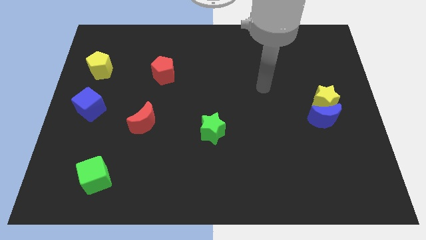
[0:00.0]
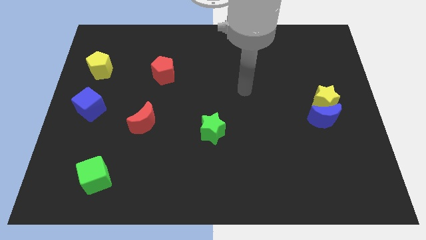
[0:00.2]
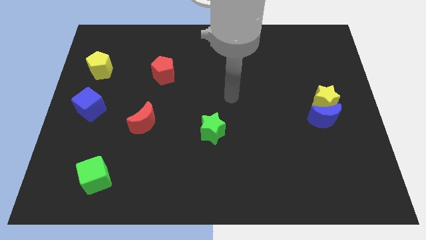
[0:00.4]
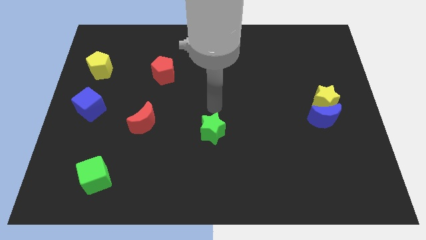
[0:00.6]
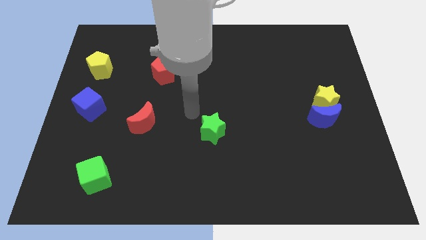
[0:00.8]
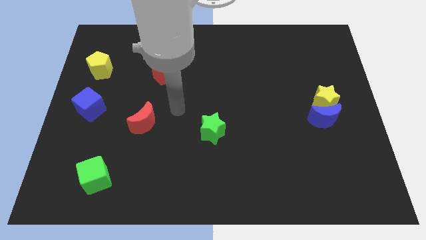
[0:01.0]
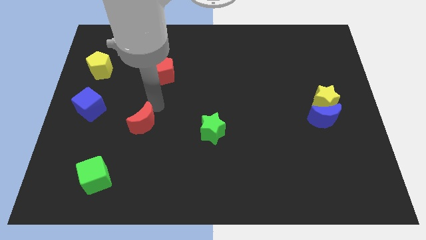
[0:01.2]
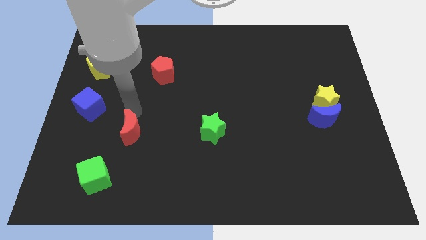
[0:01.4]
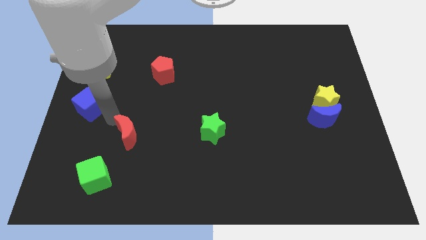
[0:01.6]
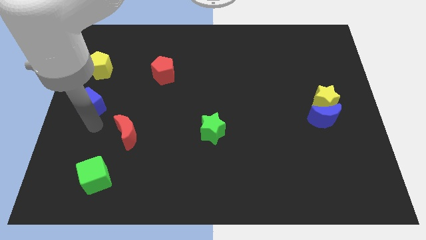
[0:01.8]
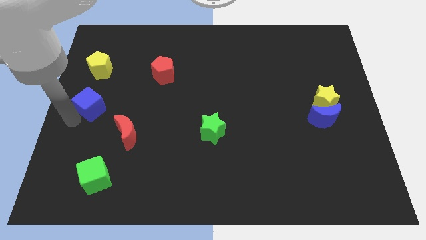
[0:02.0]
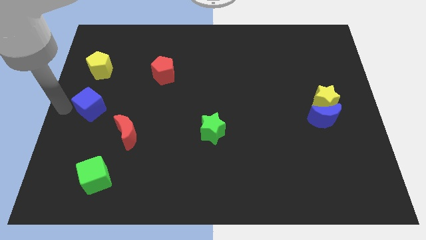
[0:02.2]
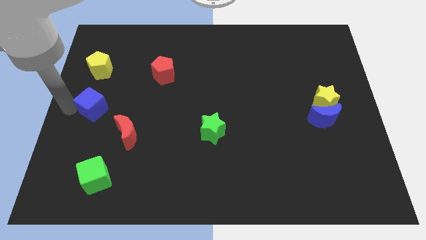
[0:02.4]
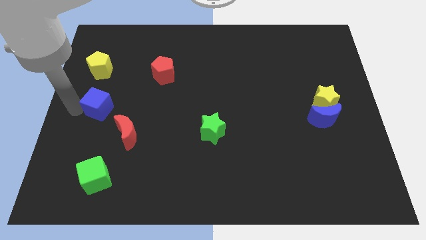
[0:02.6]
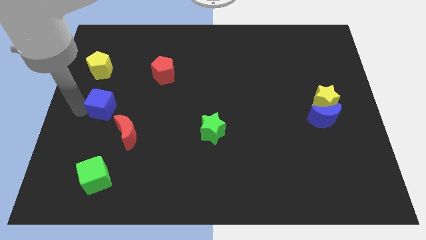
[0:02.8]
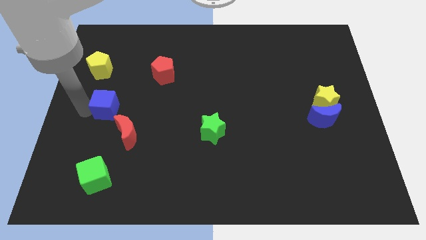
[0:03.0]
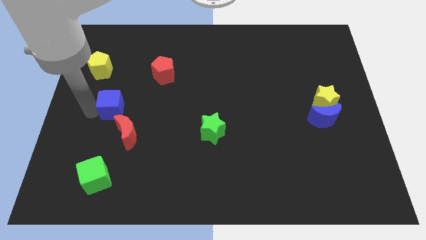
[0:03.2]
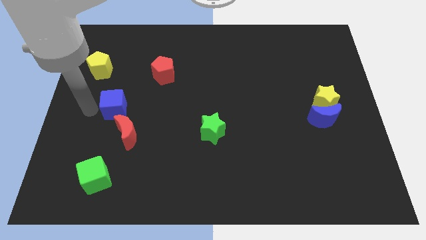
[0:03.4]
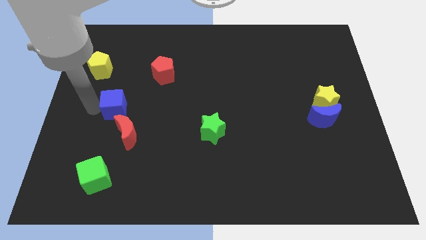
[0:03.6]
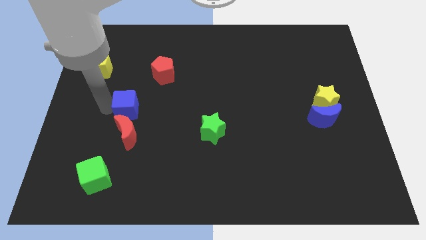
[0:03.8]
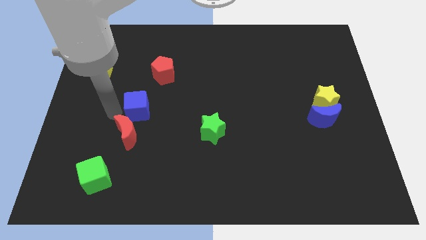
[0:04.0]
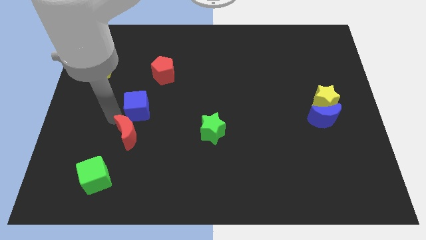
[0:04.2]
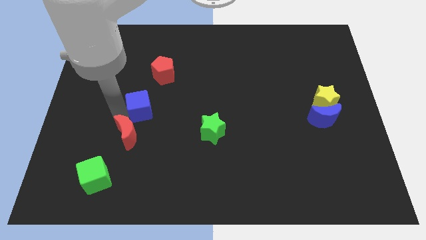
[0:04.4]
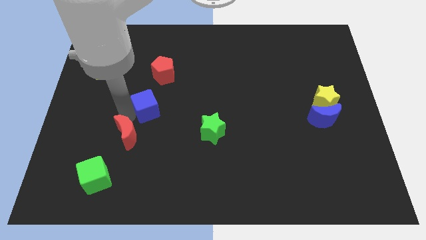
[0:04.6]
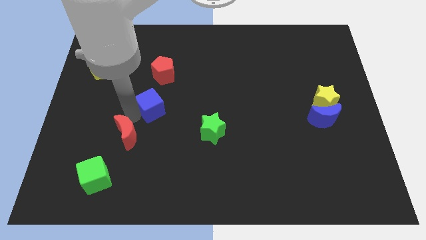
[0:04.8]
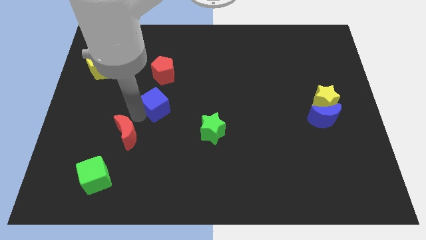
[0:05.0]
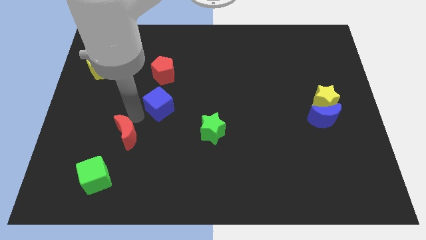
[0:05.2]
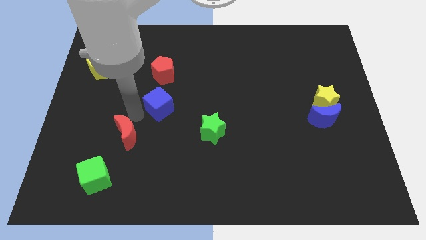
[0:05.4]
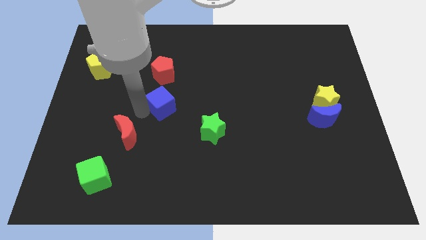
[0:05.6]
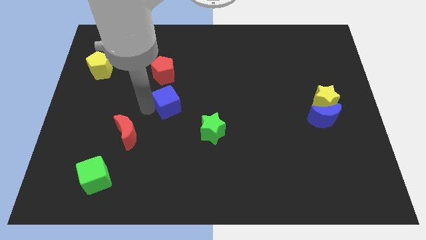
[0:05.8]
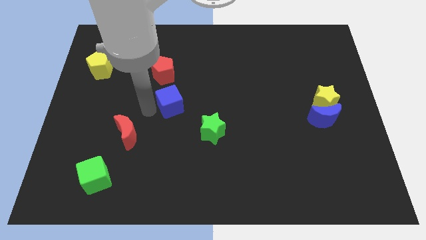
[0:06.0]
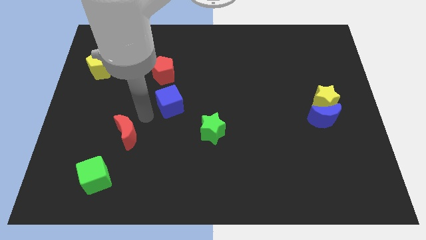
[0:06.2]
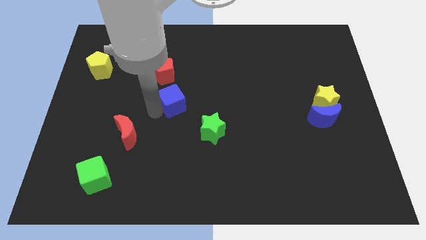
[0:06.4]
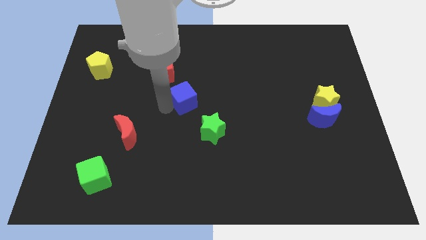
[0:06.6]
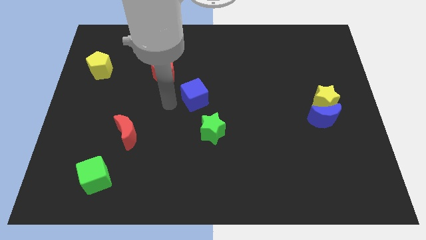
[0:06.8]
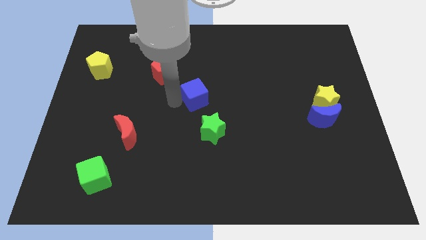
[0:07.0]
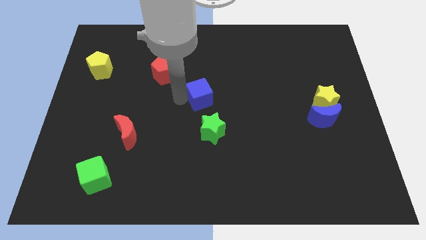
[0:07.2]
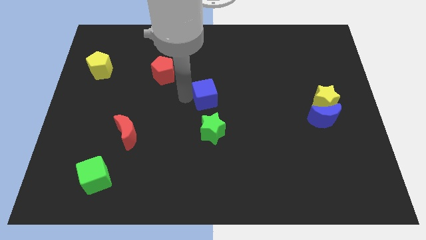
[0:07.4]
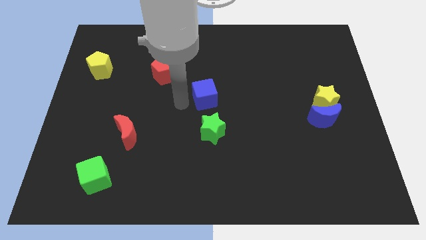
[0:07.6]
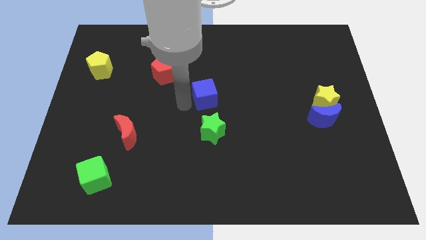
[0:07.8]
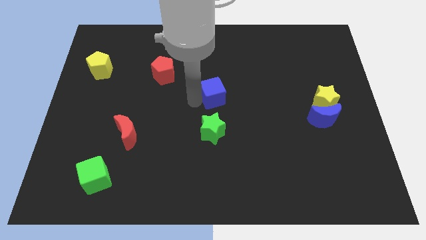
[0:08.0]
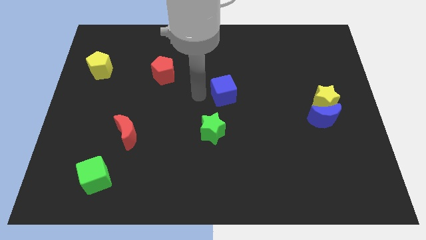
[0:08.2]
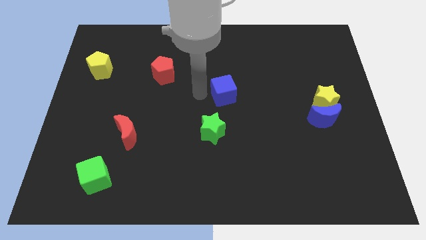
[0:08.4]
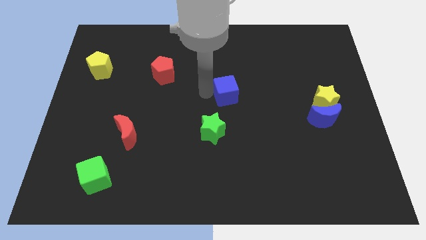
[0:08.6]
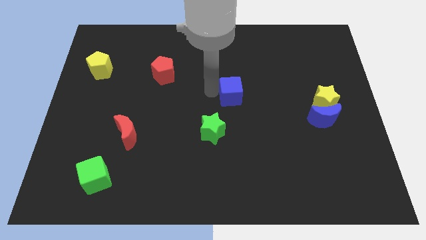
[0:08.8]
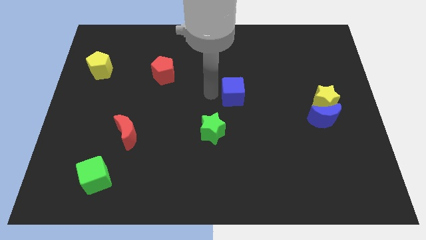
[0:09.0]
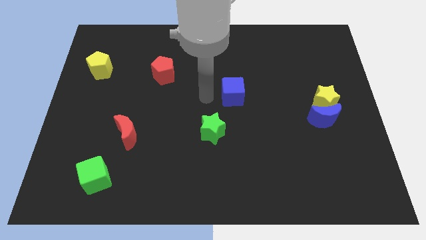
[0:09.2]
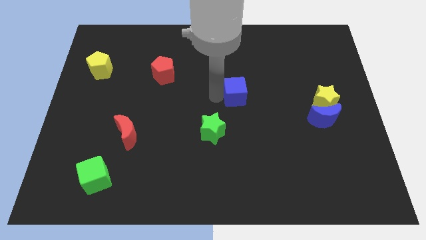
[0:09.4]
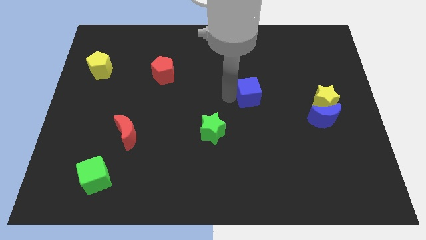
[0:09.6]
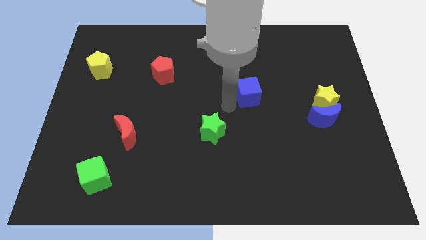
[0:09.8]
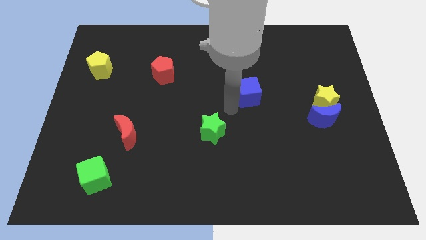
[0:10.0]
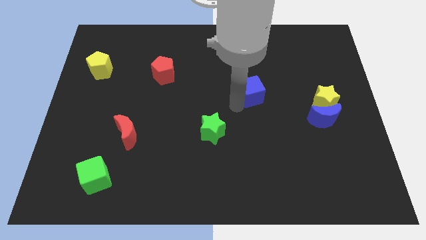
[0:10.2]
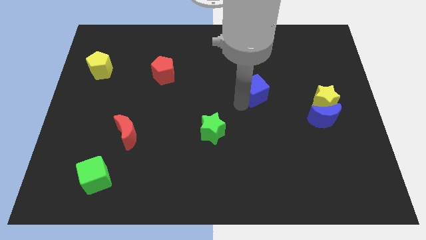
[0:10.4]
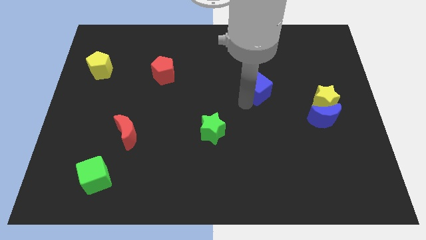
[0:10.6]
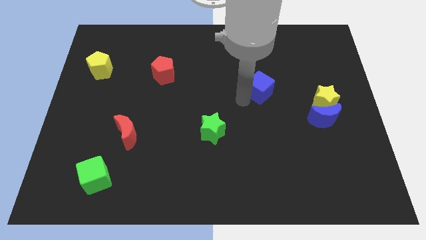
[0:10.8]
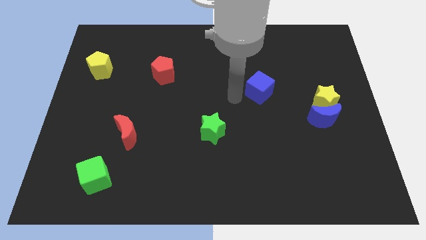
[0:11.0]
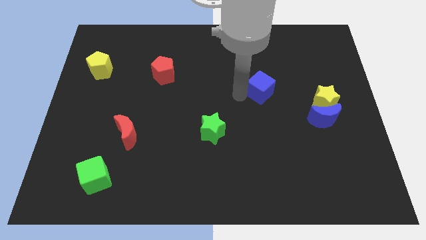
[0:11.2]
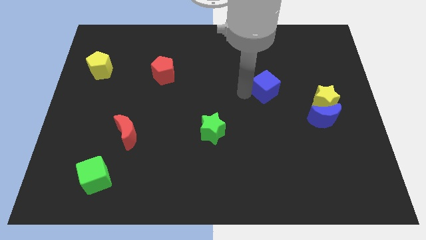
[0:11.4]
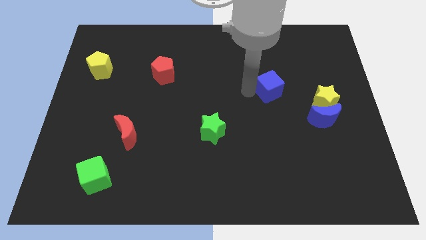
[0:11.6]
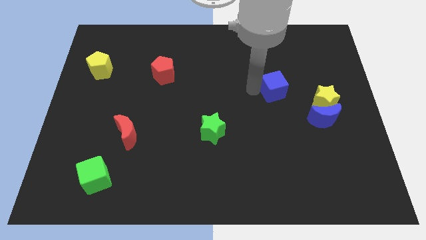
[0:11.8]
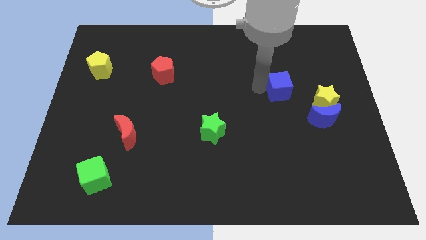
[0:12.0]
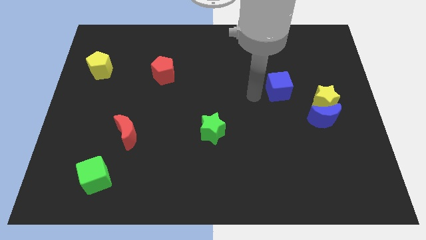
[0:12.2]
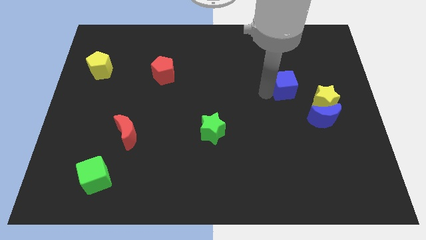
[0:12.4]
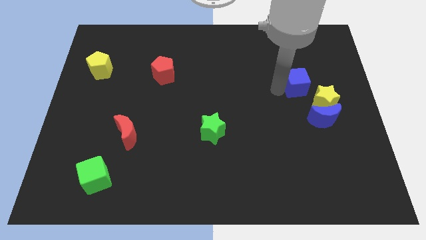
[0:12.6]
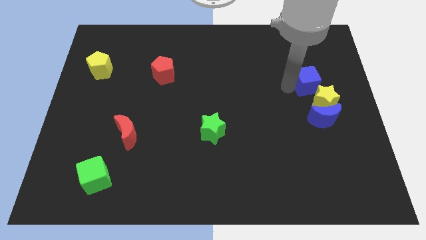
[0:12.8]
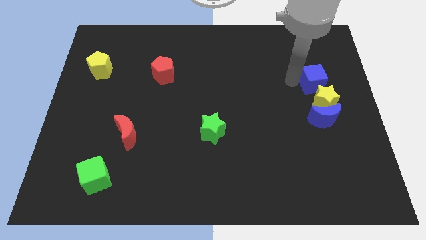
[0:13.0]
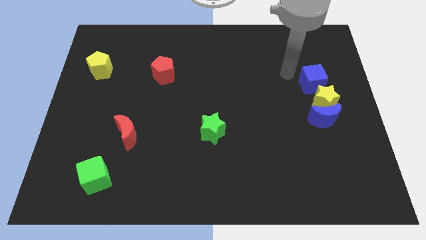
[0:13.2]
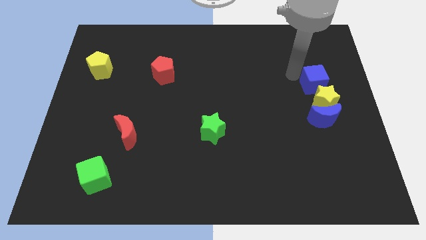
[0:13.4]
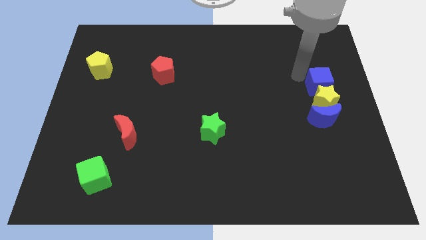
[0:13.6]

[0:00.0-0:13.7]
slide the blue cube to the right side
